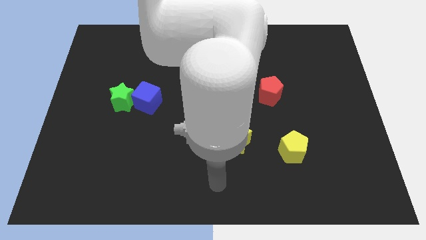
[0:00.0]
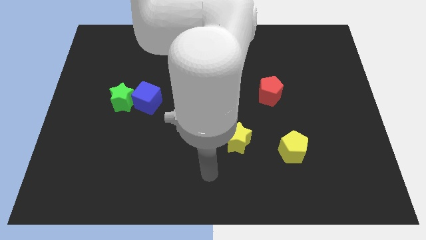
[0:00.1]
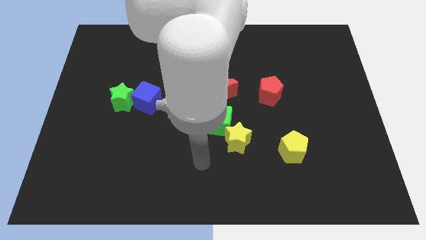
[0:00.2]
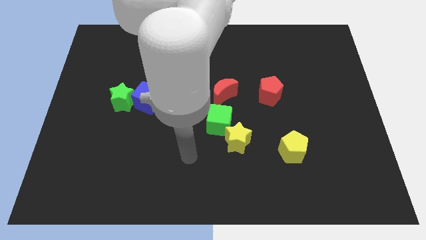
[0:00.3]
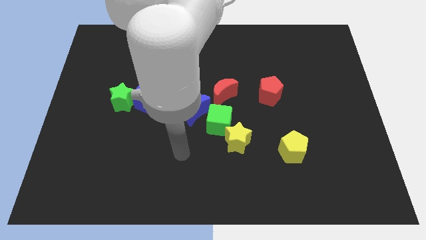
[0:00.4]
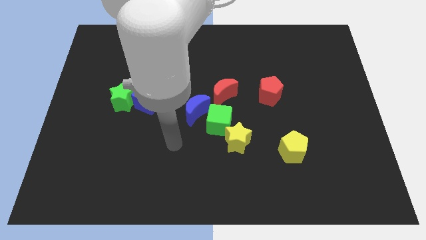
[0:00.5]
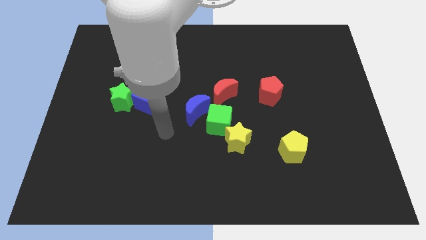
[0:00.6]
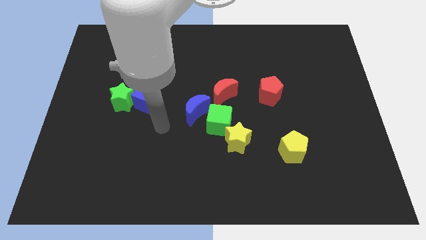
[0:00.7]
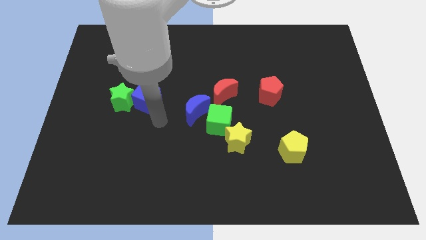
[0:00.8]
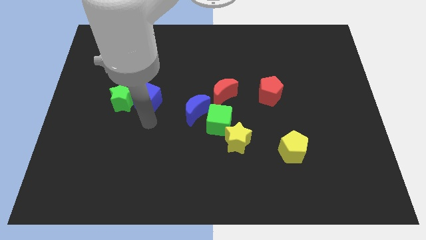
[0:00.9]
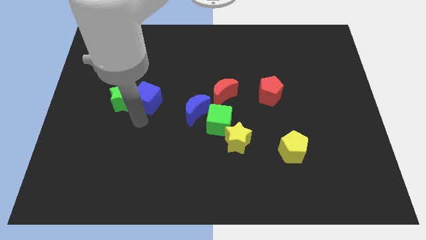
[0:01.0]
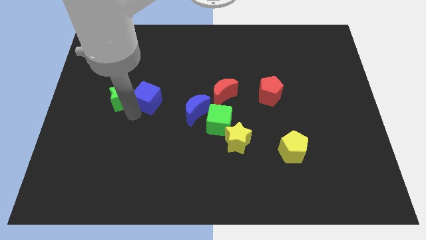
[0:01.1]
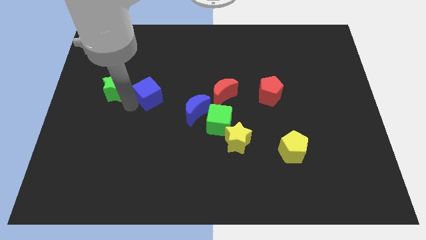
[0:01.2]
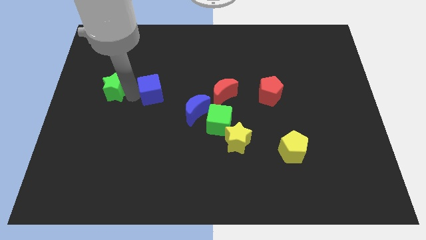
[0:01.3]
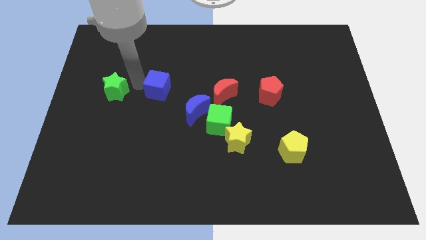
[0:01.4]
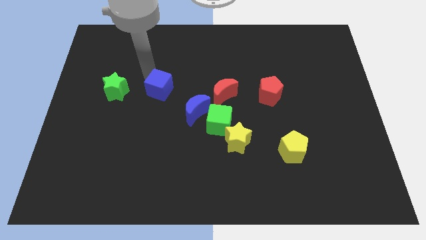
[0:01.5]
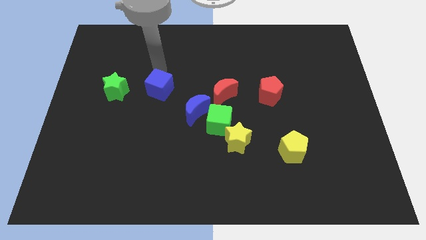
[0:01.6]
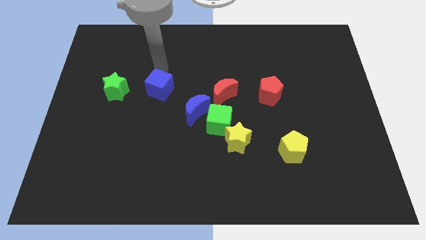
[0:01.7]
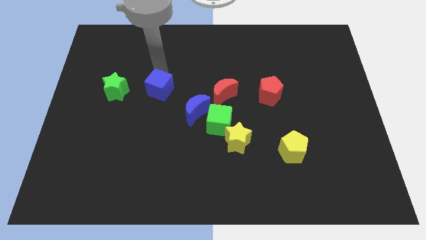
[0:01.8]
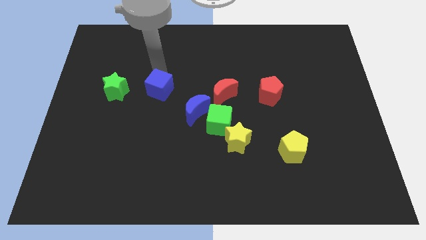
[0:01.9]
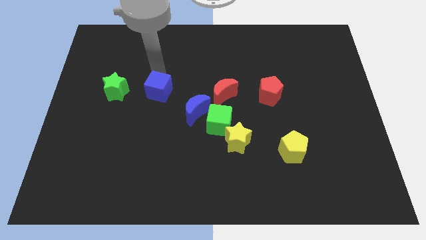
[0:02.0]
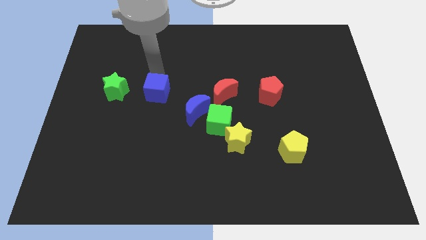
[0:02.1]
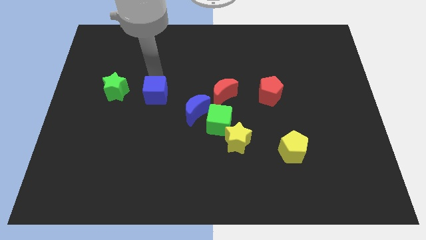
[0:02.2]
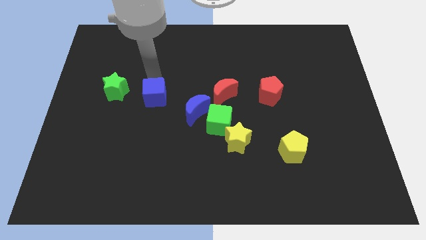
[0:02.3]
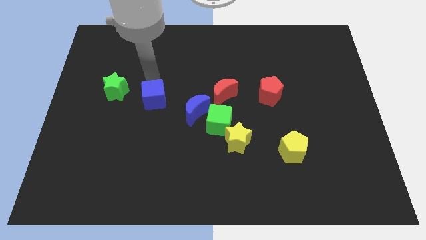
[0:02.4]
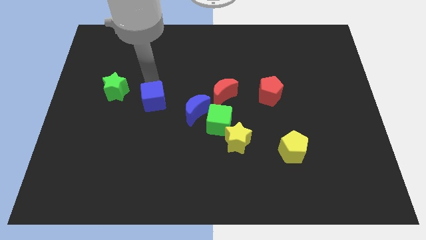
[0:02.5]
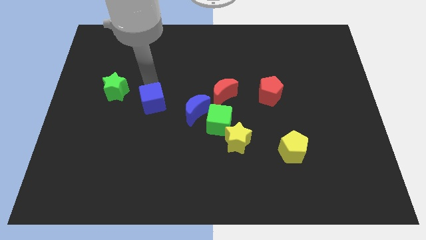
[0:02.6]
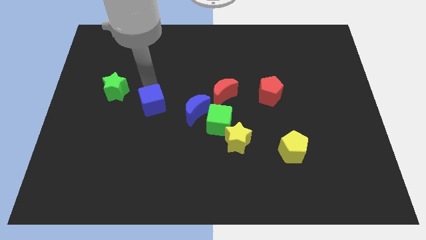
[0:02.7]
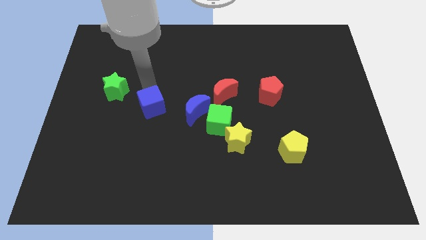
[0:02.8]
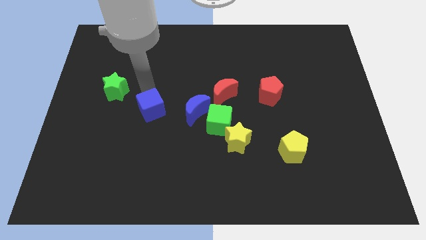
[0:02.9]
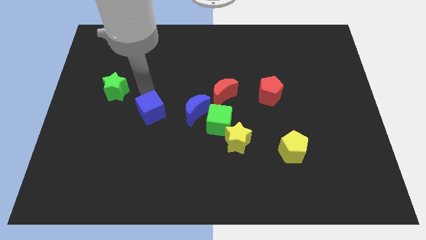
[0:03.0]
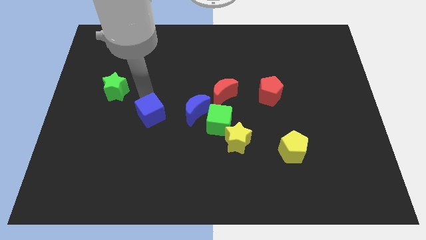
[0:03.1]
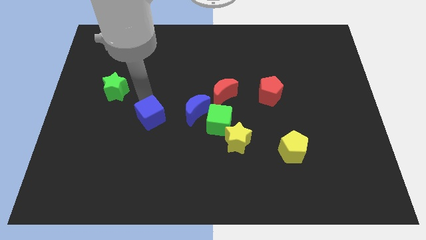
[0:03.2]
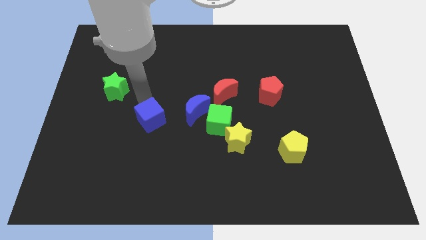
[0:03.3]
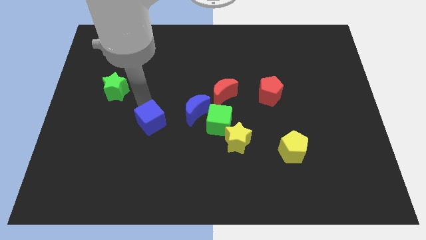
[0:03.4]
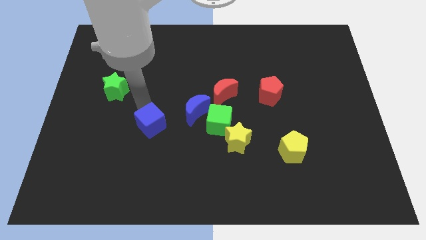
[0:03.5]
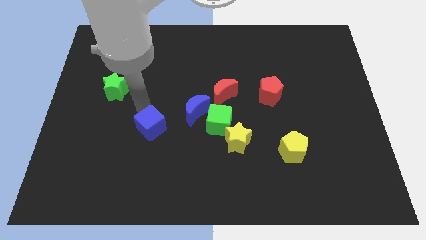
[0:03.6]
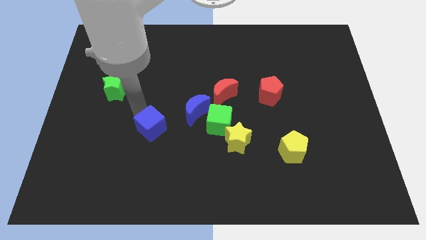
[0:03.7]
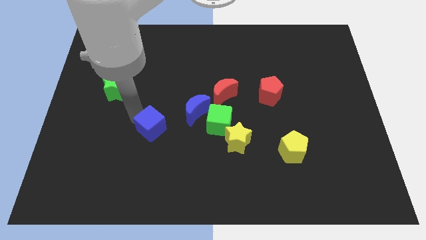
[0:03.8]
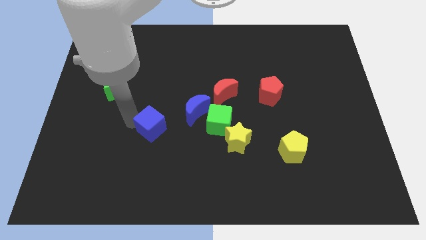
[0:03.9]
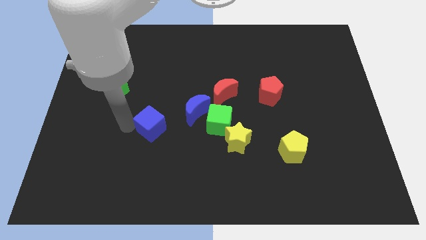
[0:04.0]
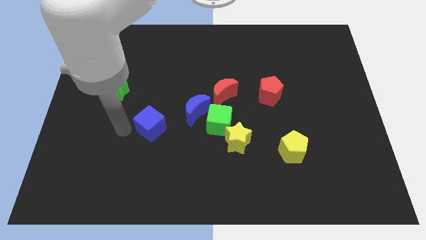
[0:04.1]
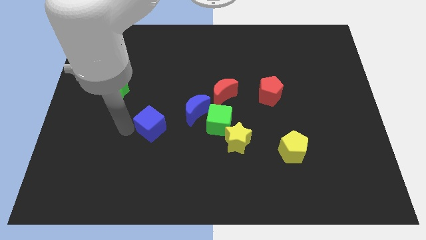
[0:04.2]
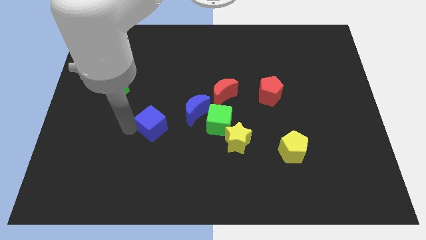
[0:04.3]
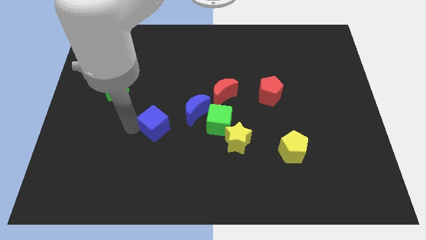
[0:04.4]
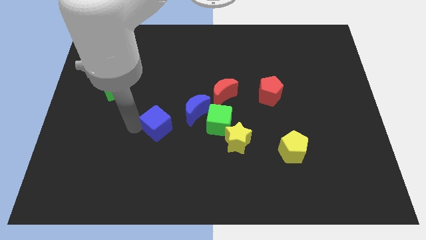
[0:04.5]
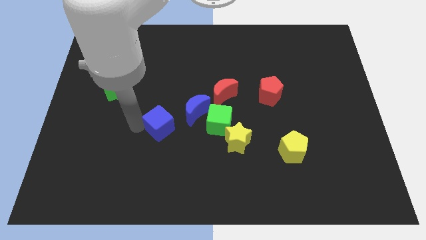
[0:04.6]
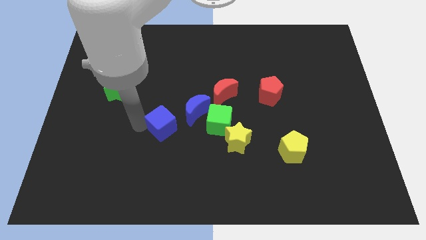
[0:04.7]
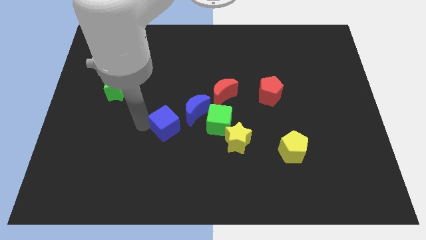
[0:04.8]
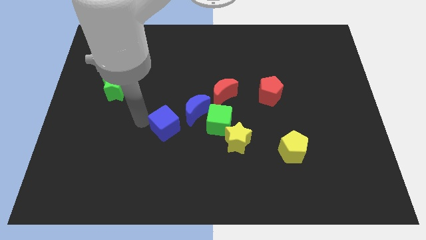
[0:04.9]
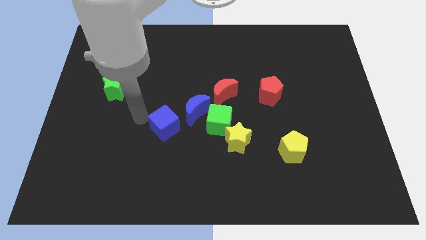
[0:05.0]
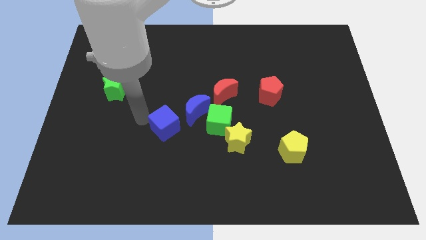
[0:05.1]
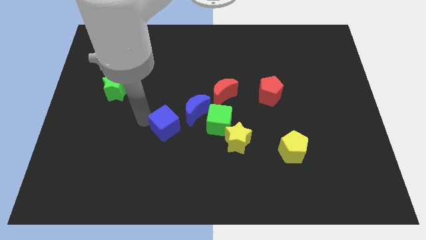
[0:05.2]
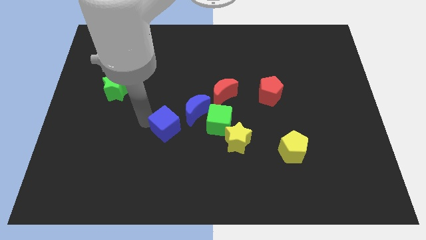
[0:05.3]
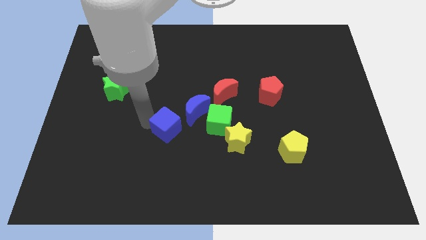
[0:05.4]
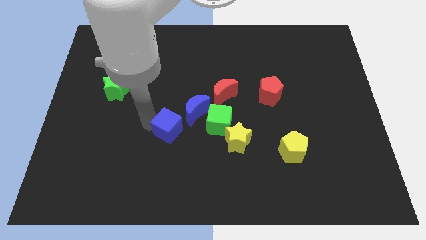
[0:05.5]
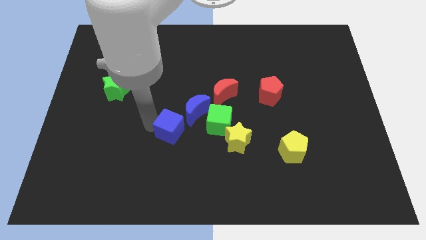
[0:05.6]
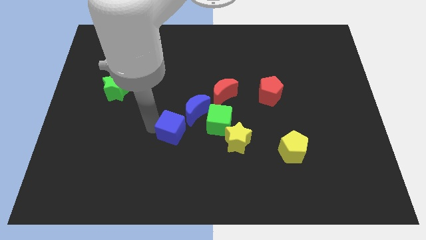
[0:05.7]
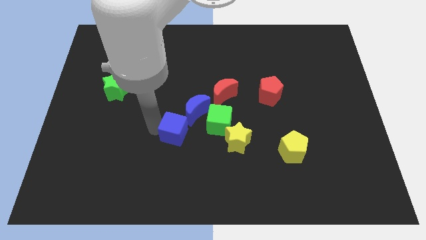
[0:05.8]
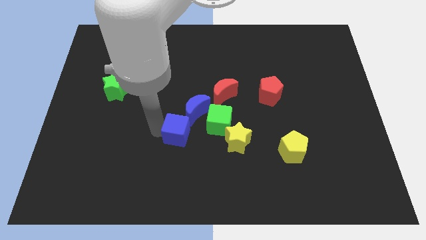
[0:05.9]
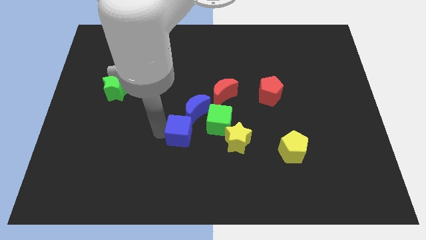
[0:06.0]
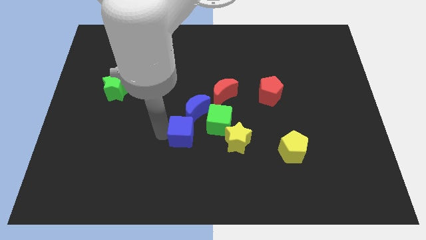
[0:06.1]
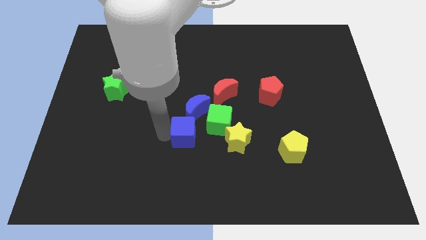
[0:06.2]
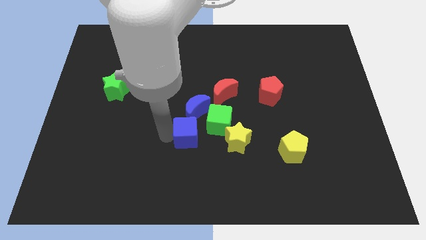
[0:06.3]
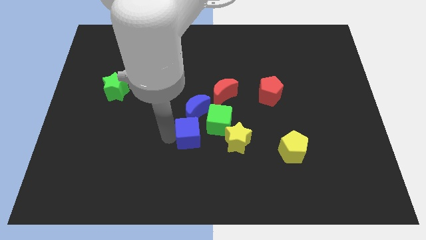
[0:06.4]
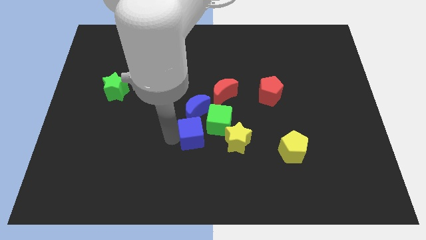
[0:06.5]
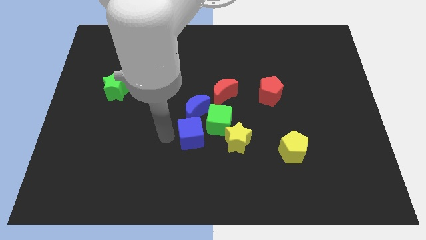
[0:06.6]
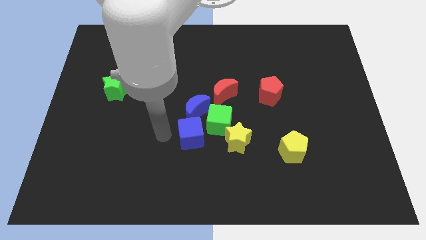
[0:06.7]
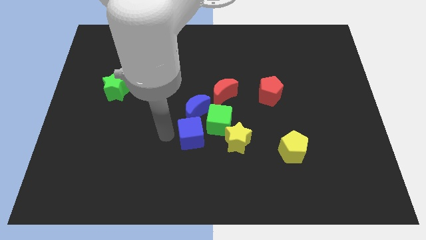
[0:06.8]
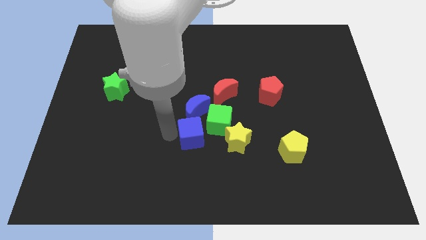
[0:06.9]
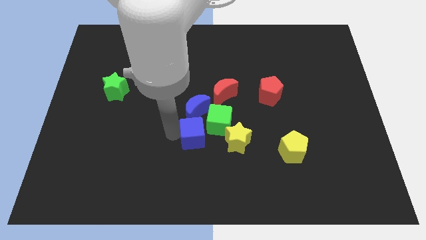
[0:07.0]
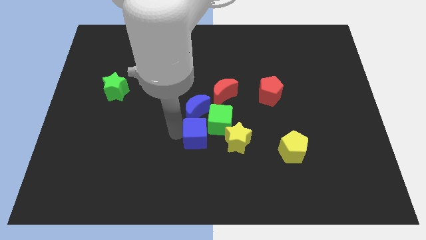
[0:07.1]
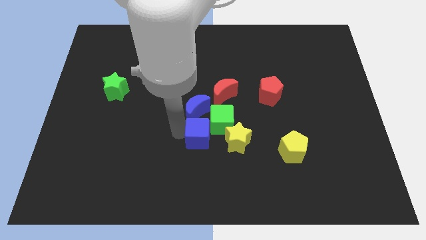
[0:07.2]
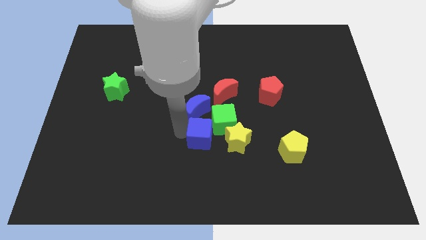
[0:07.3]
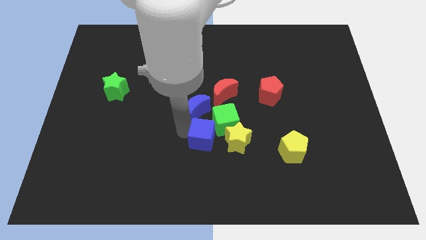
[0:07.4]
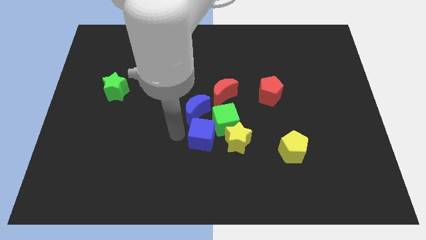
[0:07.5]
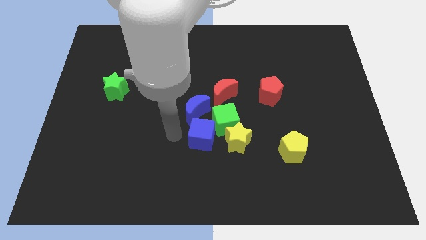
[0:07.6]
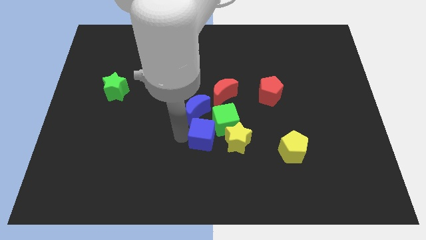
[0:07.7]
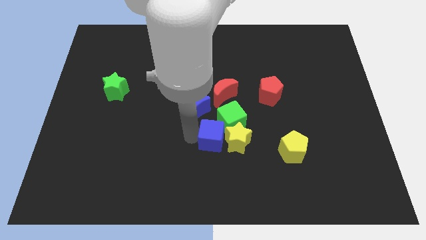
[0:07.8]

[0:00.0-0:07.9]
put the blue cube next to the yellow star
